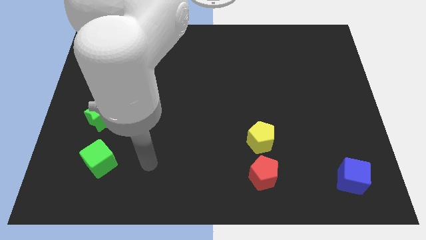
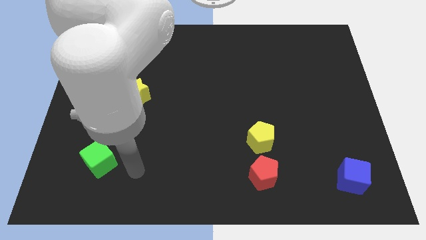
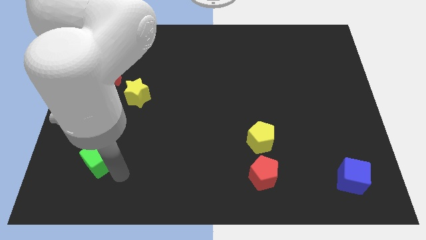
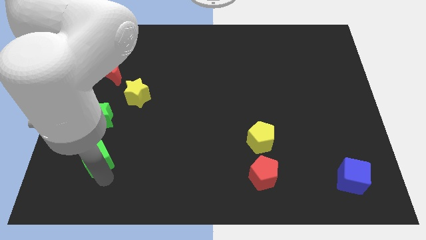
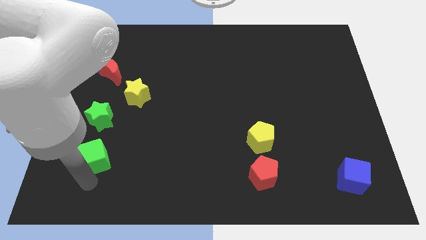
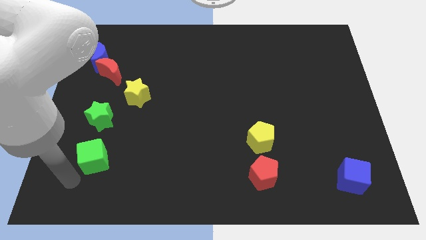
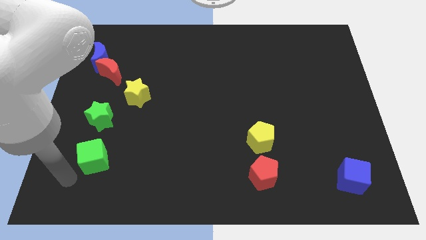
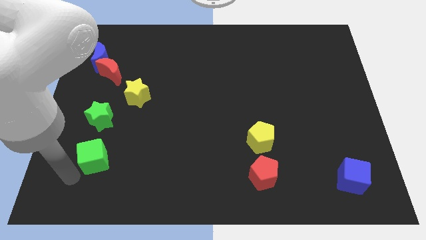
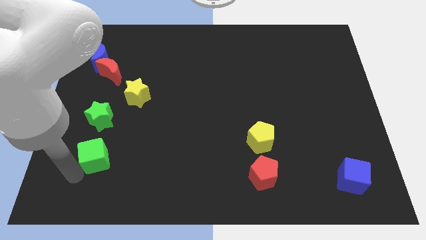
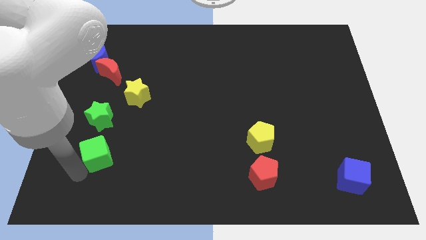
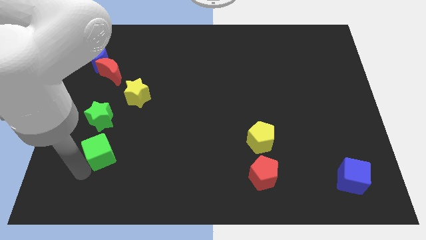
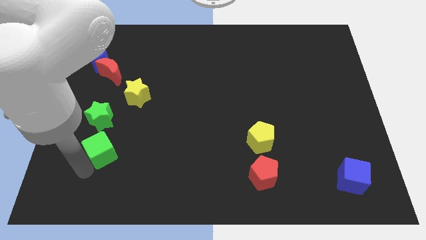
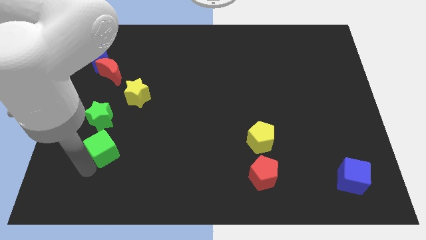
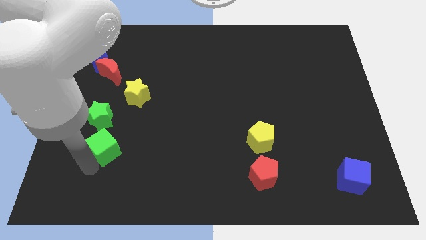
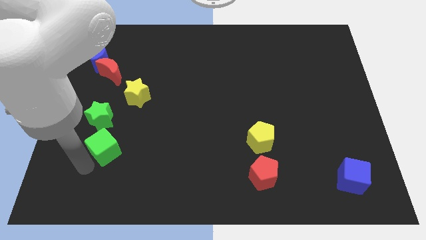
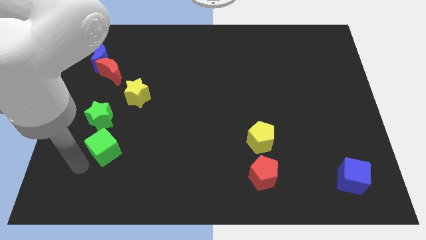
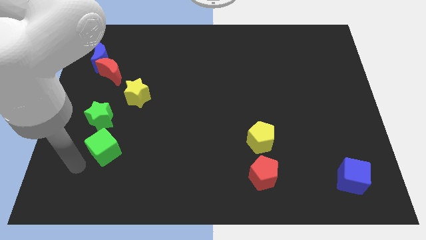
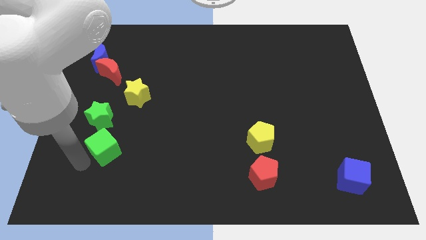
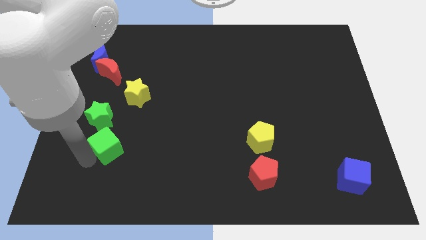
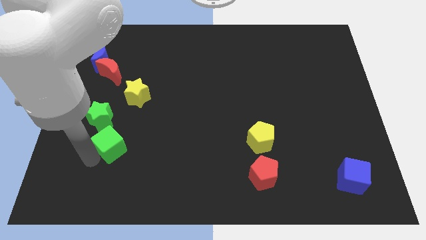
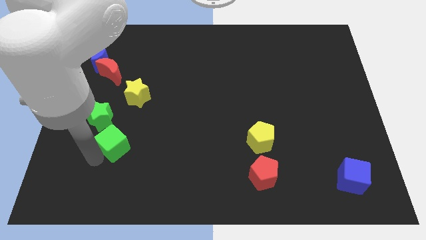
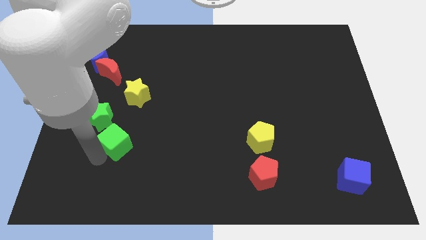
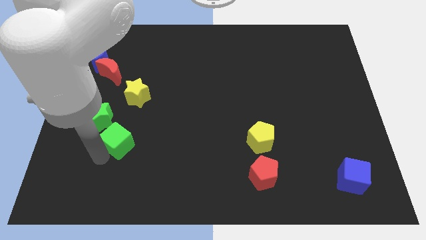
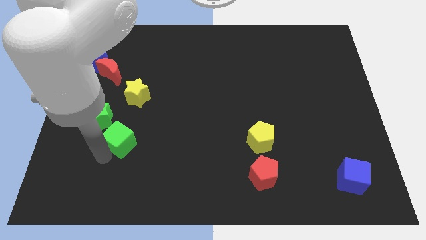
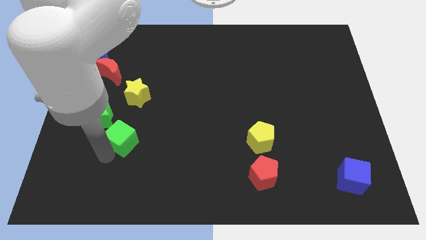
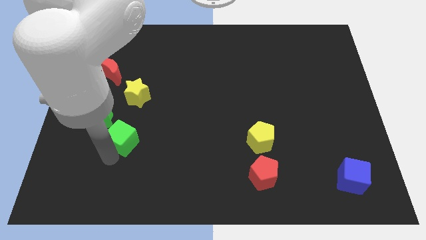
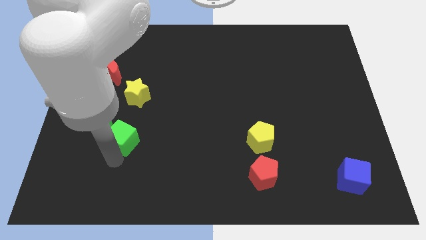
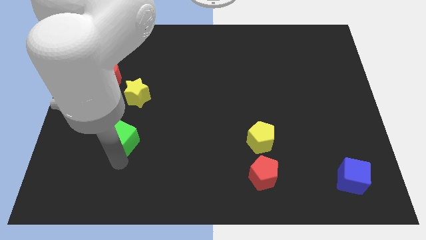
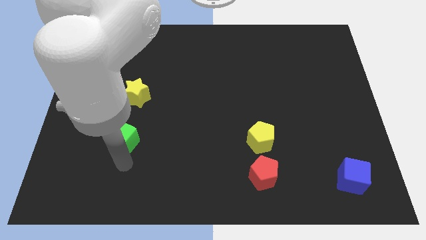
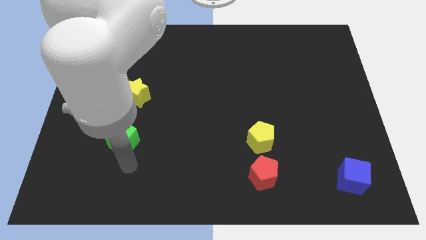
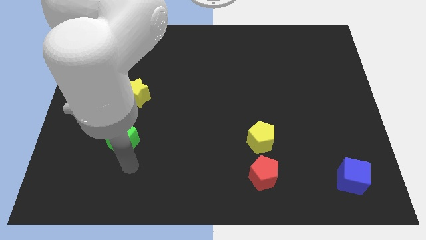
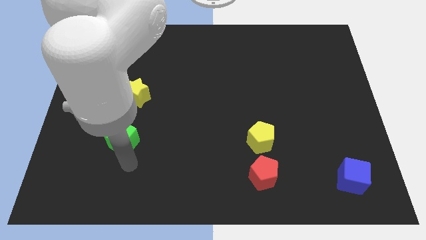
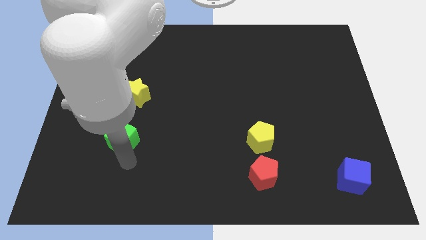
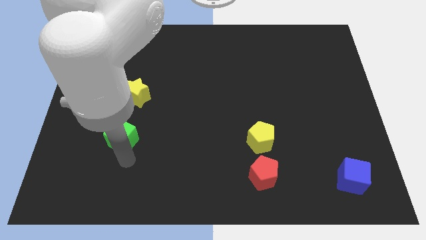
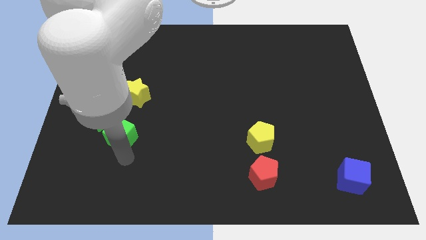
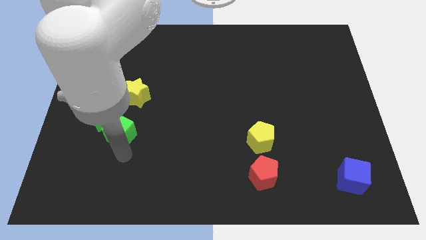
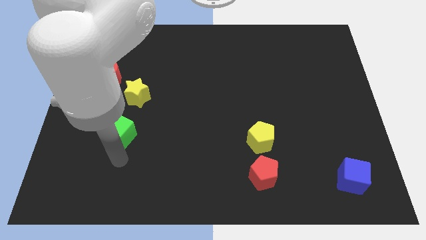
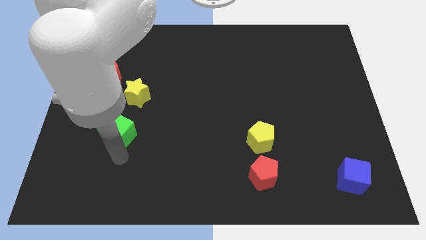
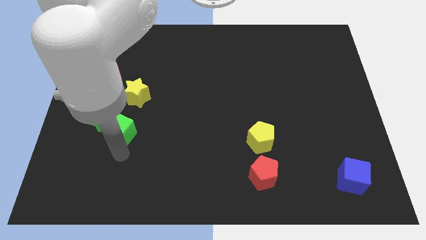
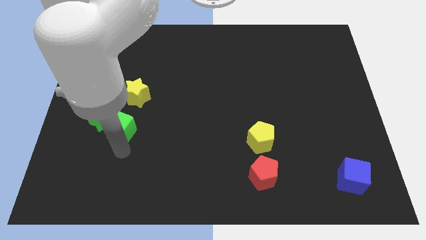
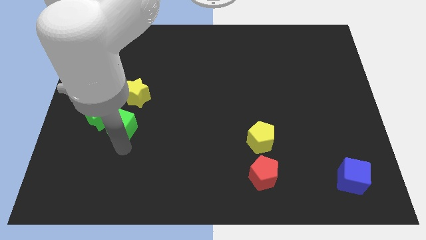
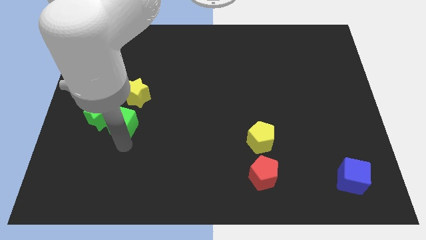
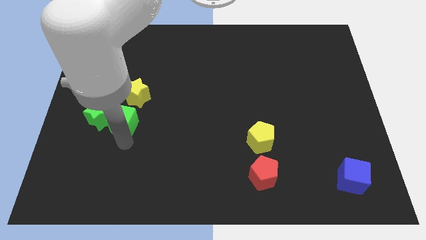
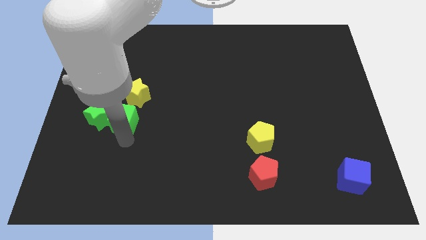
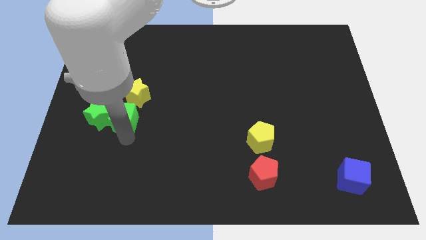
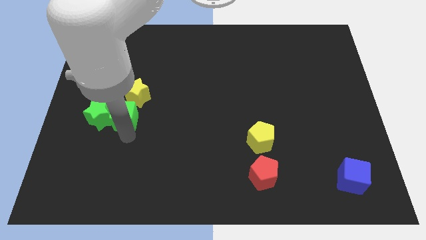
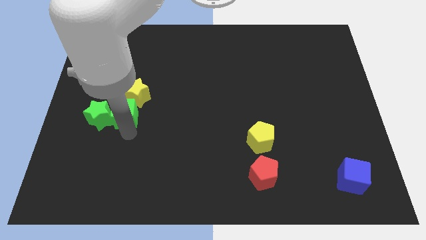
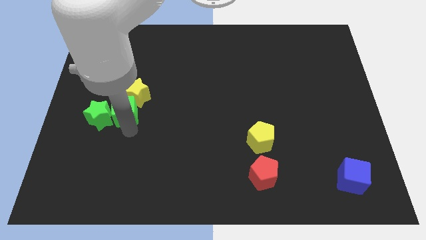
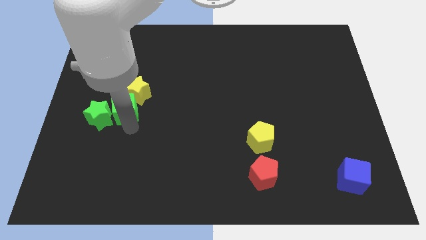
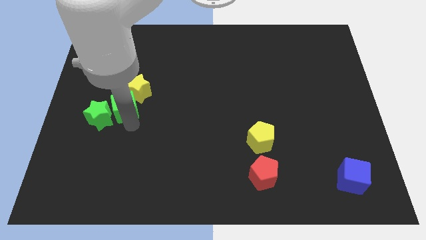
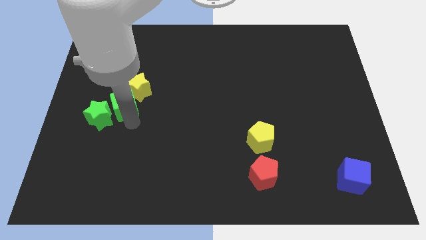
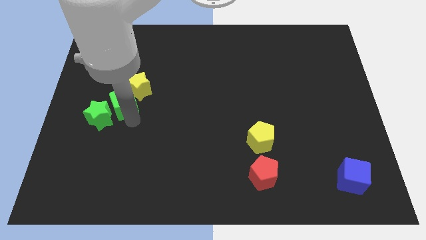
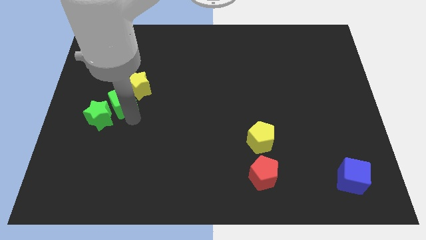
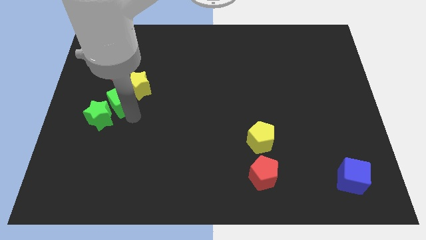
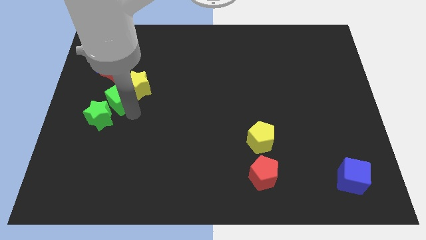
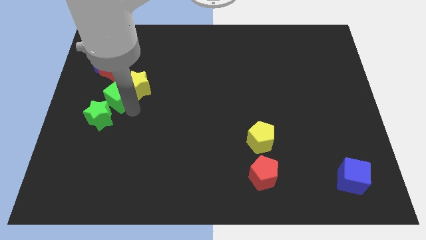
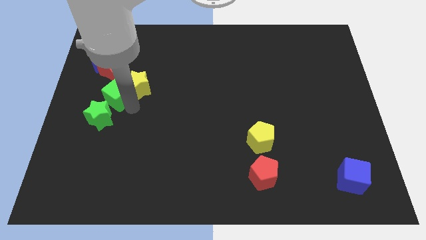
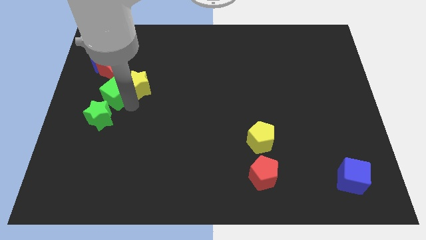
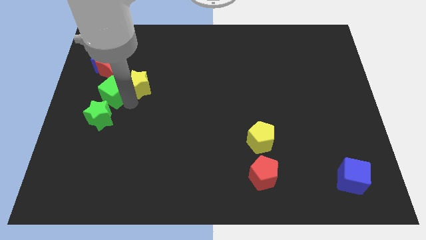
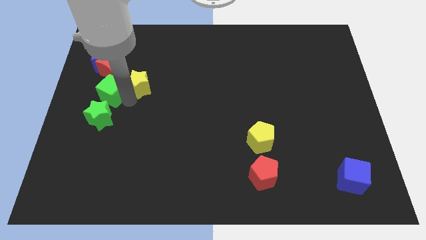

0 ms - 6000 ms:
move the green cube to the bottom of the blue moon
